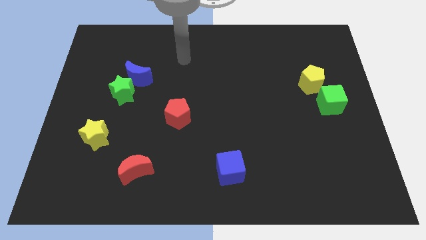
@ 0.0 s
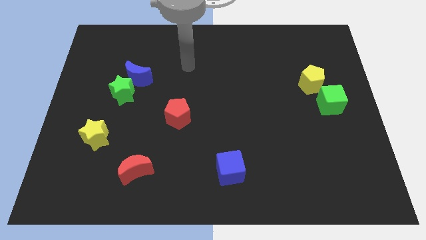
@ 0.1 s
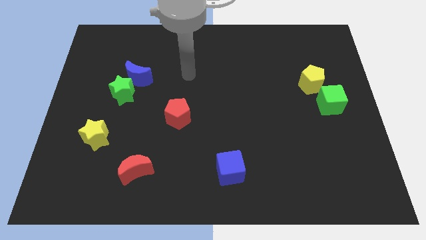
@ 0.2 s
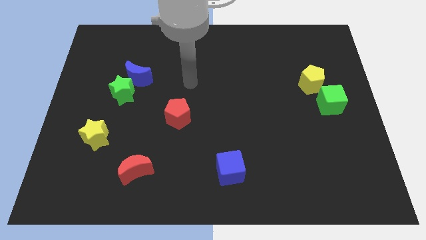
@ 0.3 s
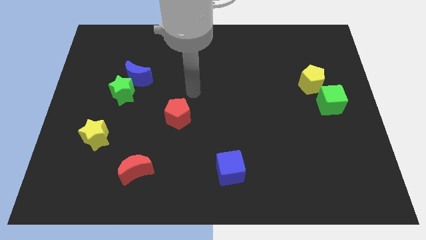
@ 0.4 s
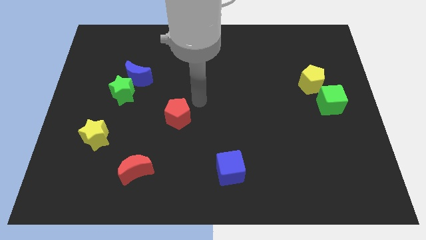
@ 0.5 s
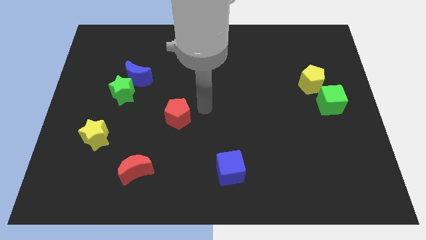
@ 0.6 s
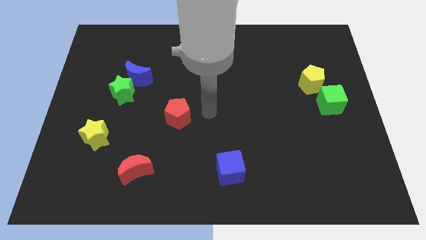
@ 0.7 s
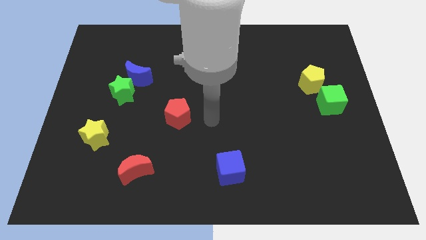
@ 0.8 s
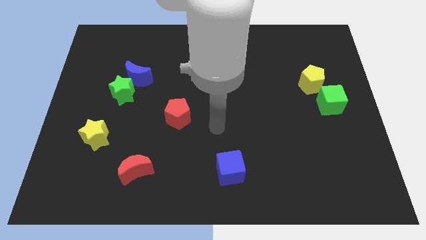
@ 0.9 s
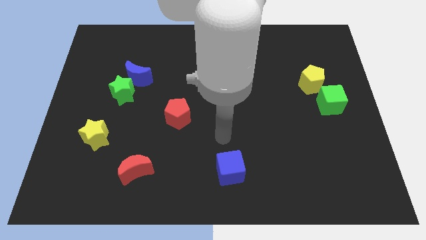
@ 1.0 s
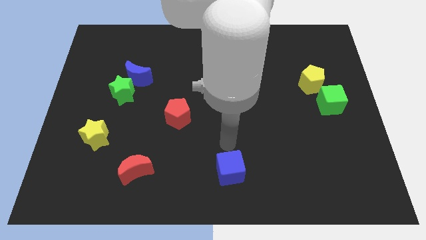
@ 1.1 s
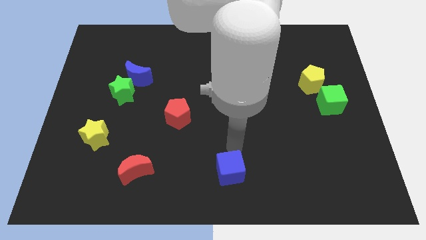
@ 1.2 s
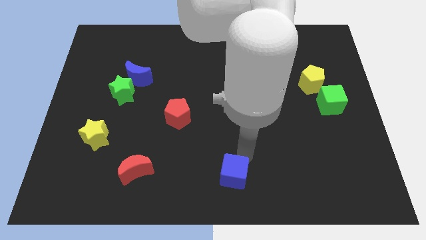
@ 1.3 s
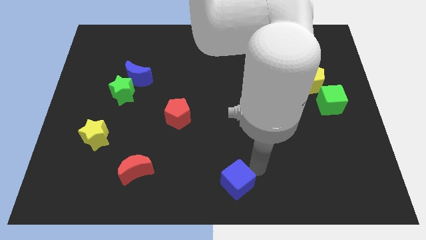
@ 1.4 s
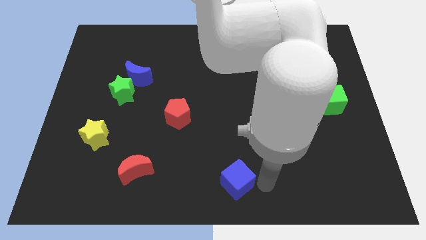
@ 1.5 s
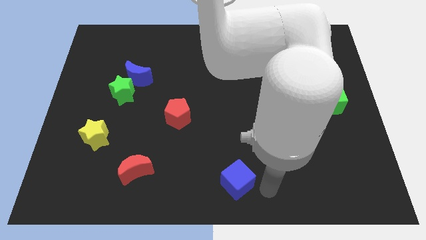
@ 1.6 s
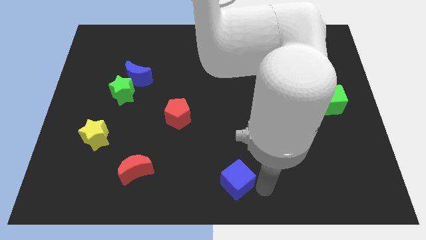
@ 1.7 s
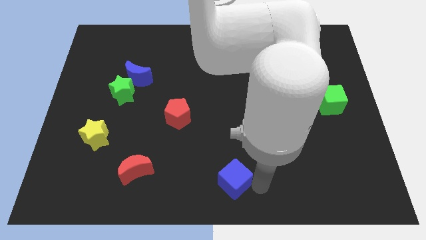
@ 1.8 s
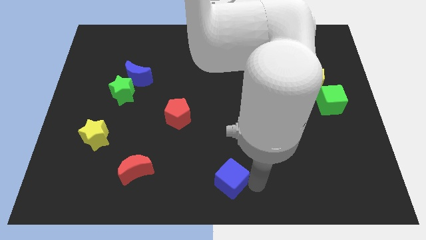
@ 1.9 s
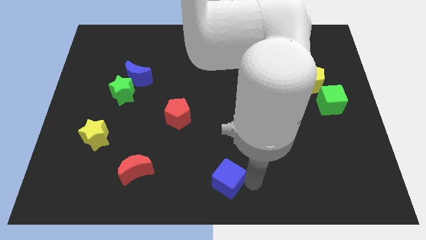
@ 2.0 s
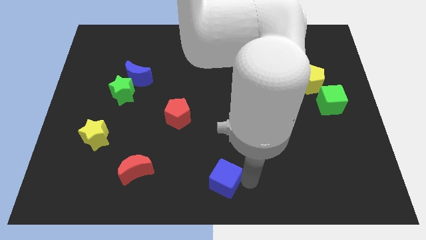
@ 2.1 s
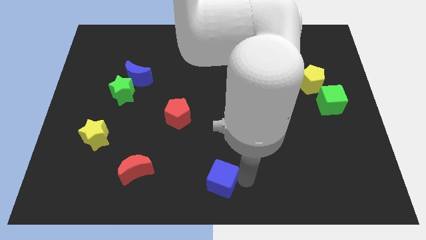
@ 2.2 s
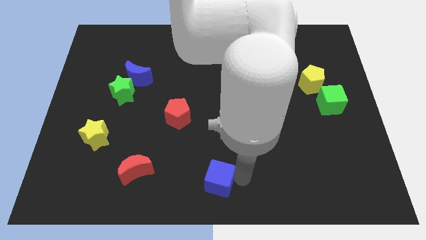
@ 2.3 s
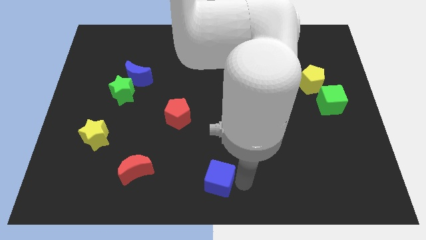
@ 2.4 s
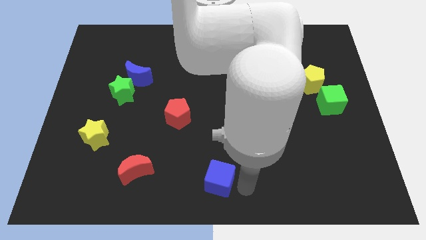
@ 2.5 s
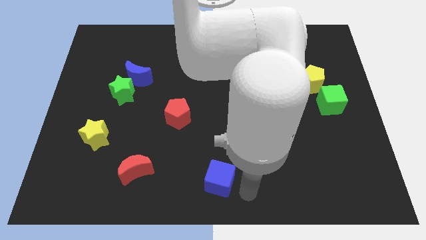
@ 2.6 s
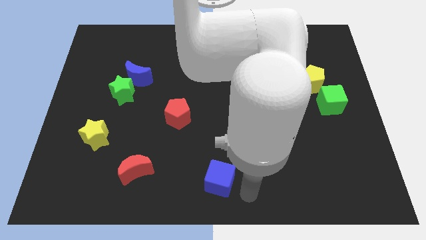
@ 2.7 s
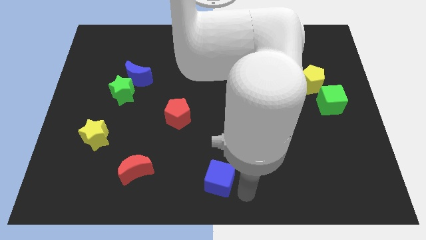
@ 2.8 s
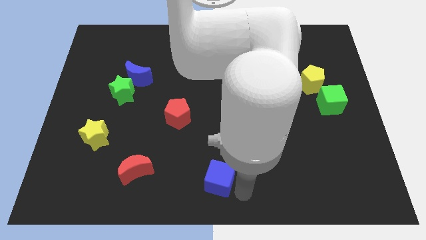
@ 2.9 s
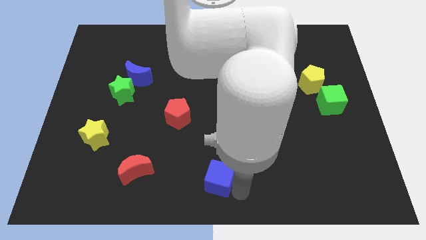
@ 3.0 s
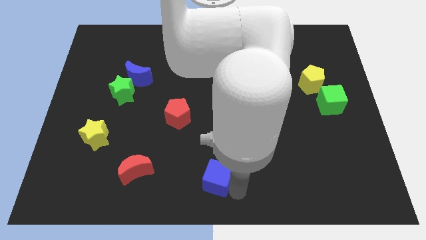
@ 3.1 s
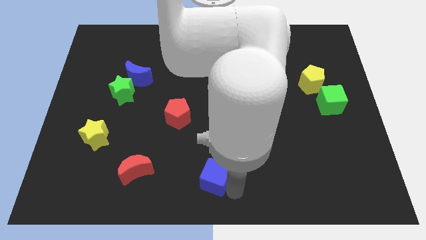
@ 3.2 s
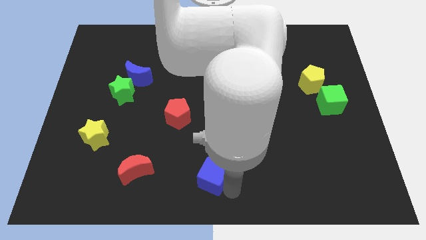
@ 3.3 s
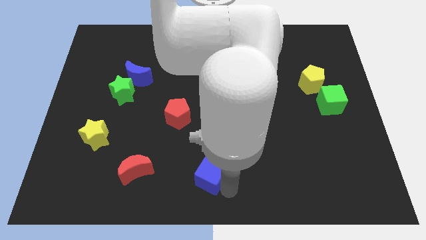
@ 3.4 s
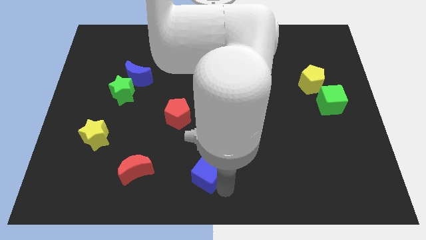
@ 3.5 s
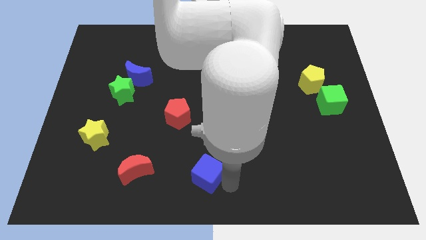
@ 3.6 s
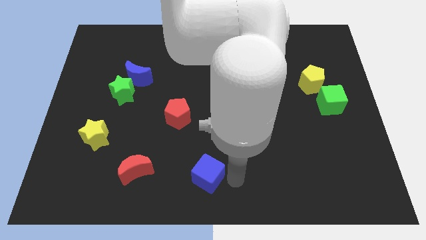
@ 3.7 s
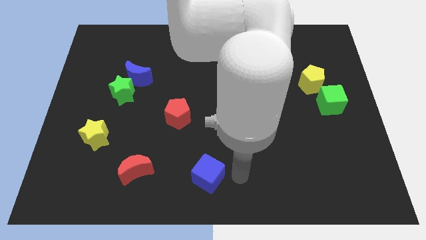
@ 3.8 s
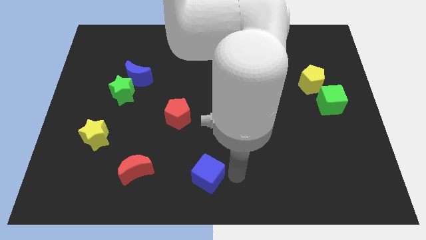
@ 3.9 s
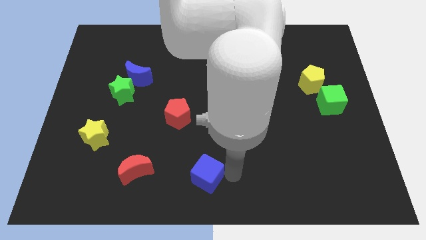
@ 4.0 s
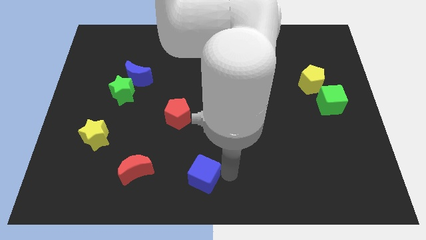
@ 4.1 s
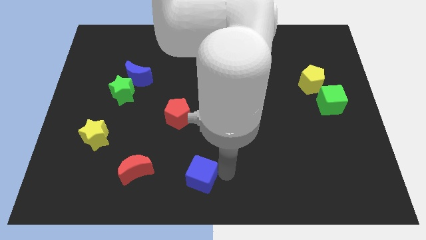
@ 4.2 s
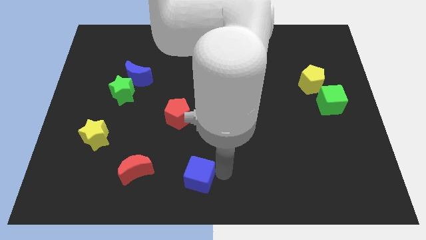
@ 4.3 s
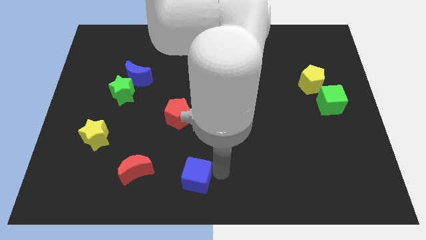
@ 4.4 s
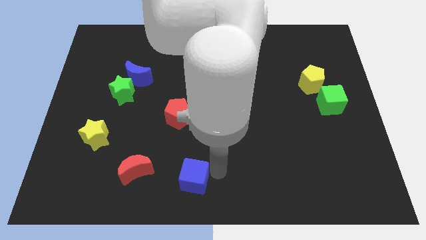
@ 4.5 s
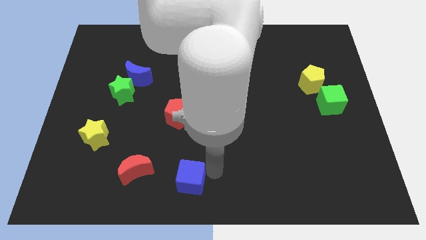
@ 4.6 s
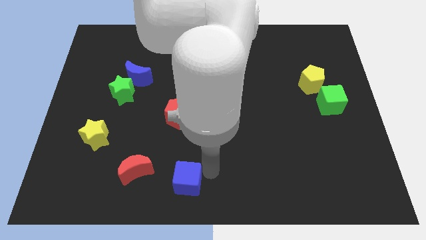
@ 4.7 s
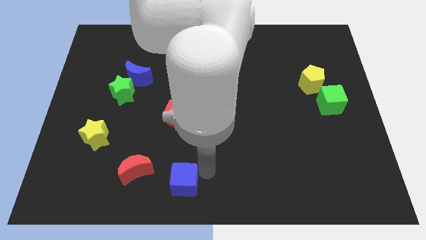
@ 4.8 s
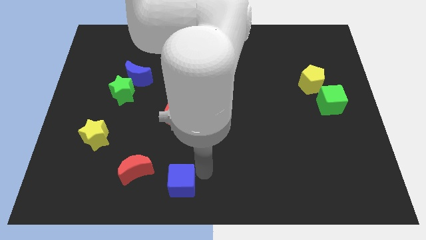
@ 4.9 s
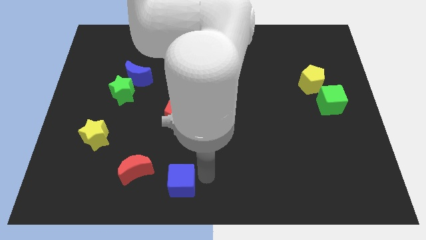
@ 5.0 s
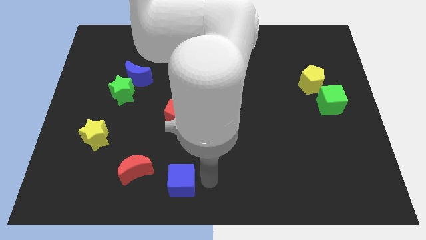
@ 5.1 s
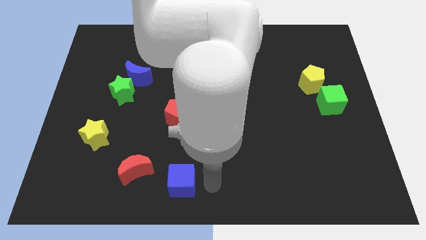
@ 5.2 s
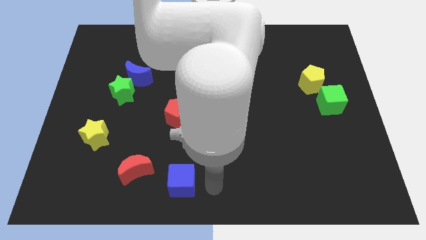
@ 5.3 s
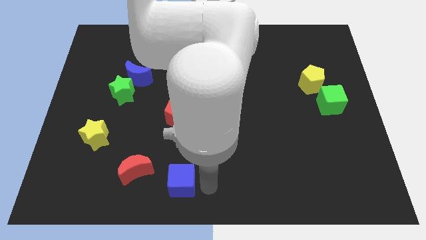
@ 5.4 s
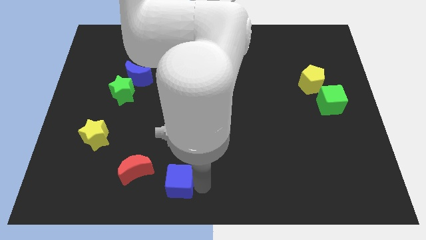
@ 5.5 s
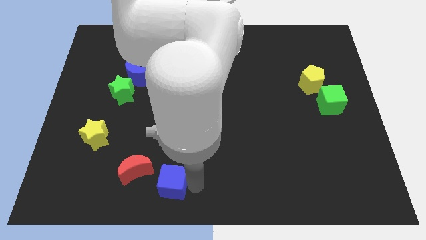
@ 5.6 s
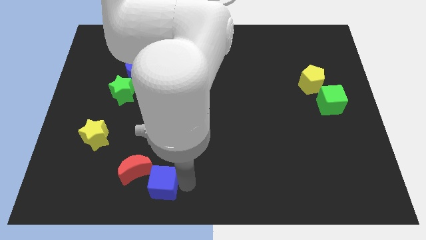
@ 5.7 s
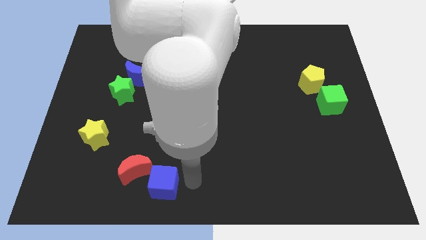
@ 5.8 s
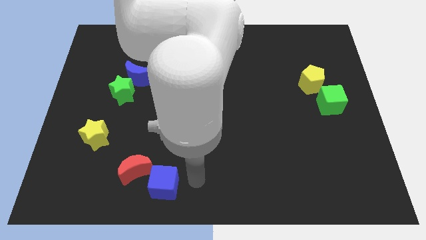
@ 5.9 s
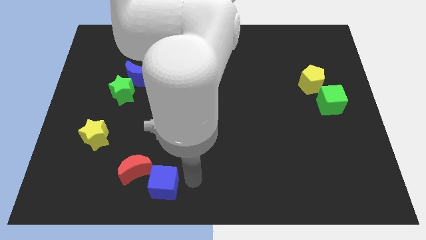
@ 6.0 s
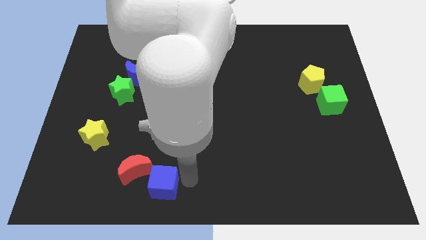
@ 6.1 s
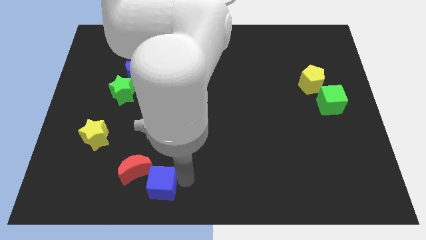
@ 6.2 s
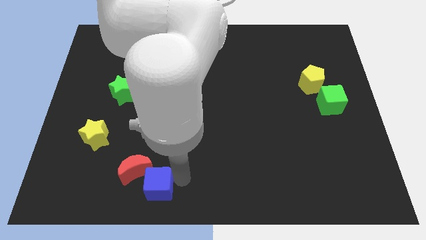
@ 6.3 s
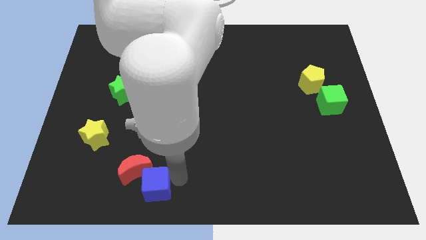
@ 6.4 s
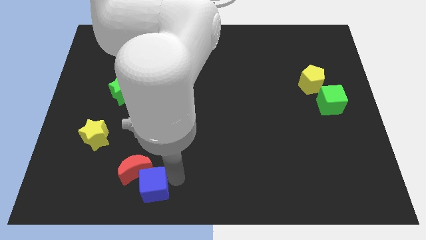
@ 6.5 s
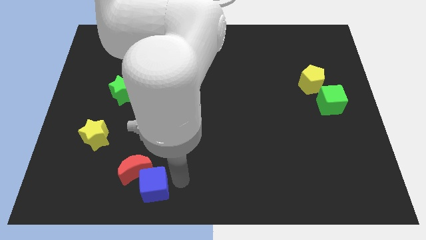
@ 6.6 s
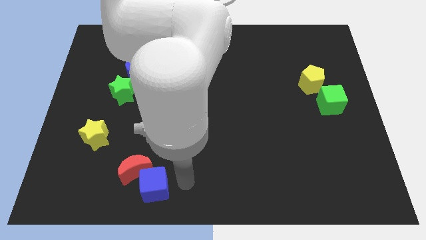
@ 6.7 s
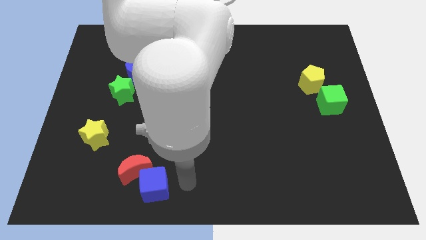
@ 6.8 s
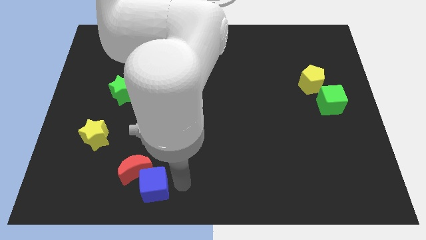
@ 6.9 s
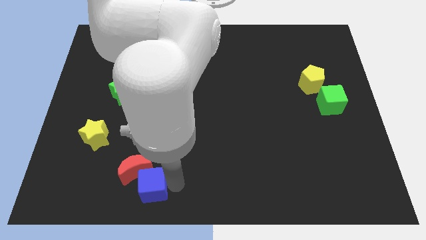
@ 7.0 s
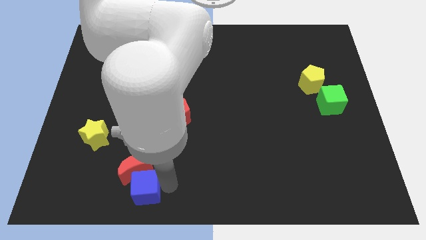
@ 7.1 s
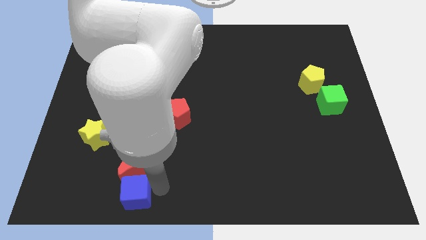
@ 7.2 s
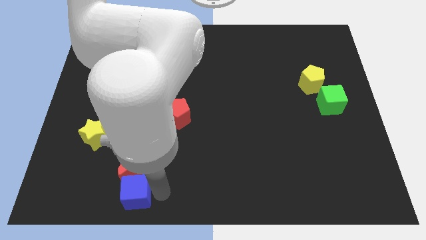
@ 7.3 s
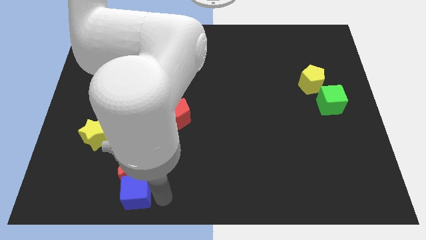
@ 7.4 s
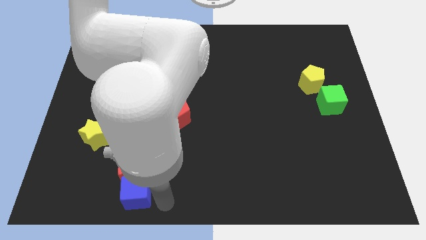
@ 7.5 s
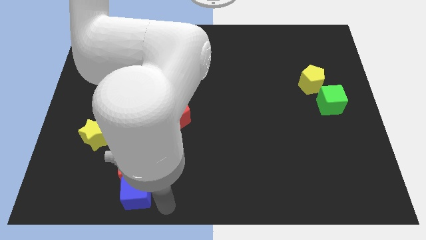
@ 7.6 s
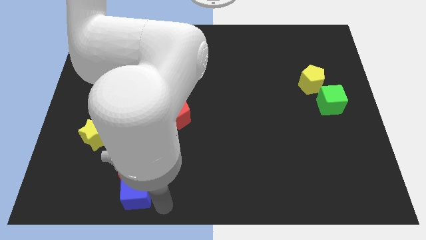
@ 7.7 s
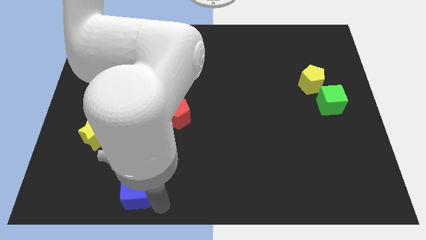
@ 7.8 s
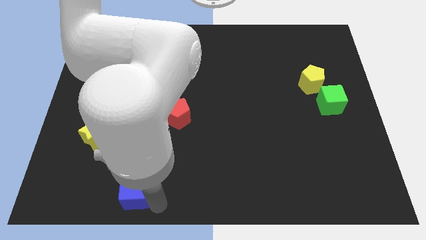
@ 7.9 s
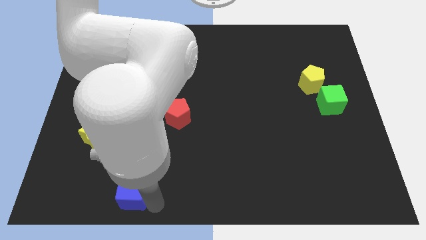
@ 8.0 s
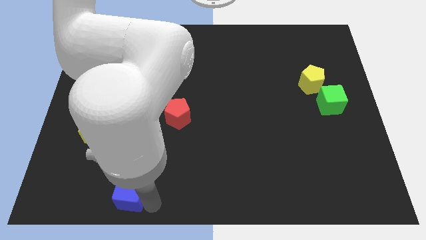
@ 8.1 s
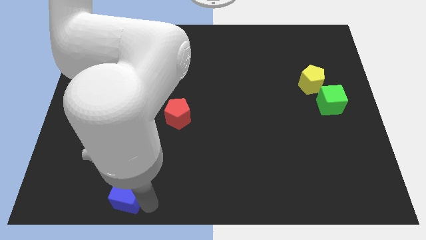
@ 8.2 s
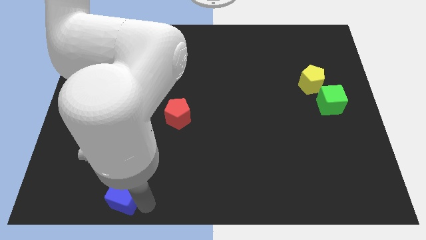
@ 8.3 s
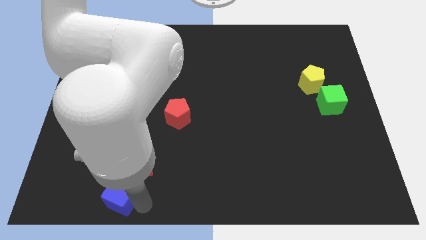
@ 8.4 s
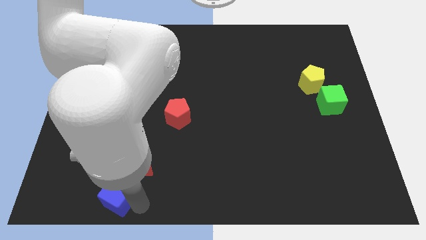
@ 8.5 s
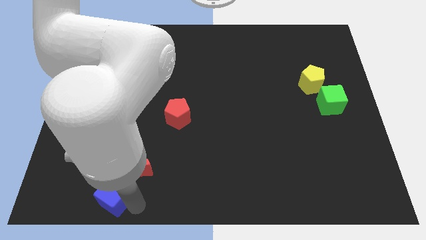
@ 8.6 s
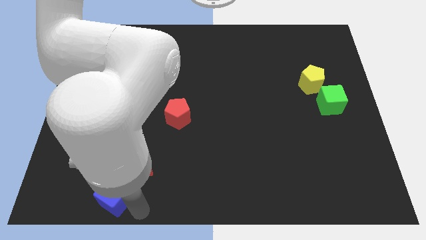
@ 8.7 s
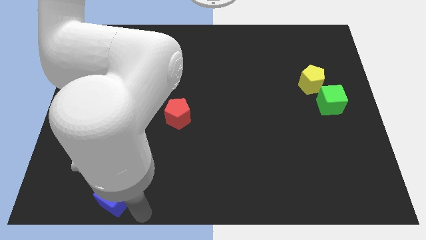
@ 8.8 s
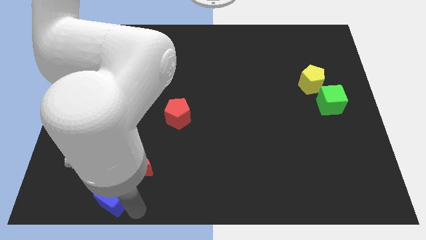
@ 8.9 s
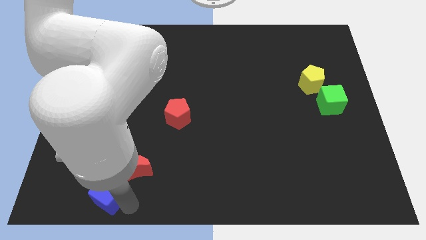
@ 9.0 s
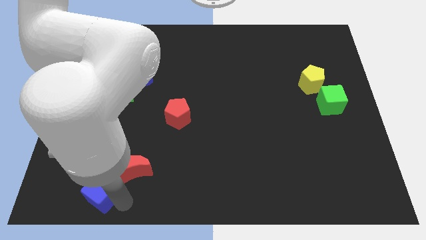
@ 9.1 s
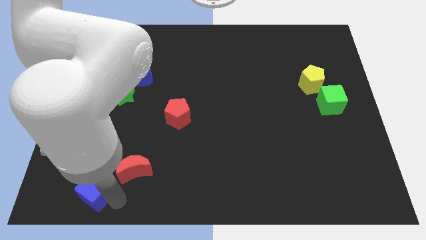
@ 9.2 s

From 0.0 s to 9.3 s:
push the blue cube to the left of the red moon
